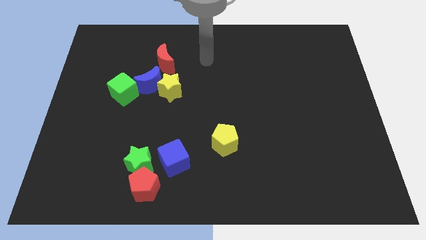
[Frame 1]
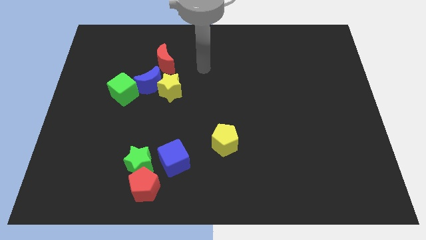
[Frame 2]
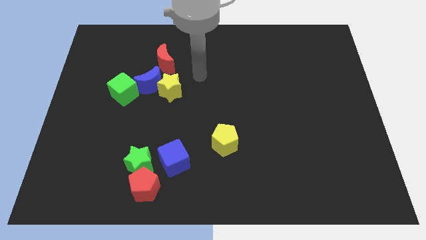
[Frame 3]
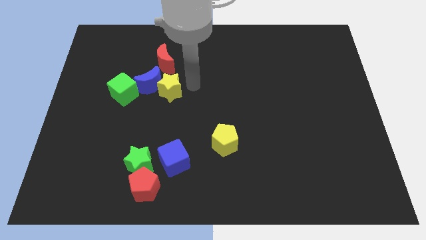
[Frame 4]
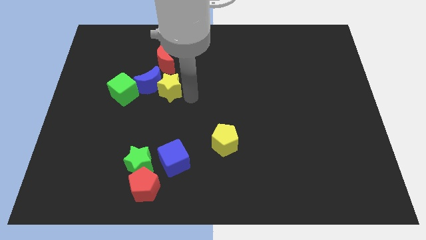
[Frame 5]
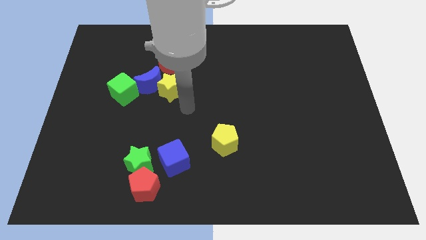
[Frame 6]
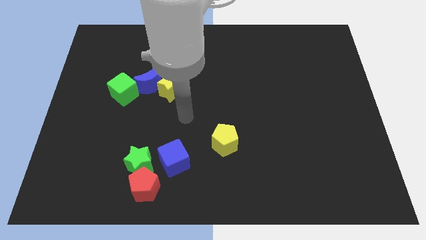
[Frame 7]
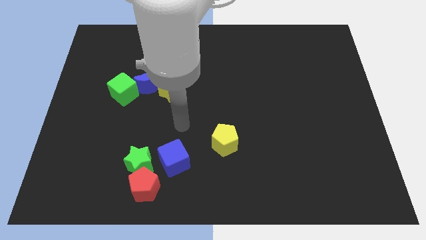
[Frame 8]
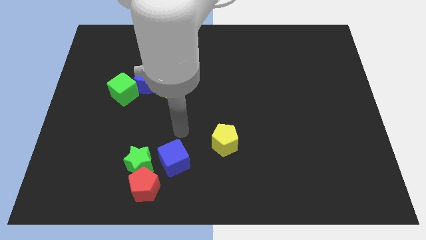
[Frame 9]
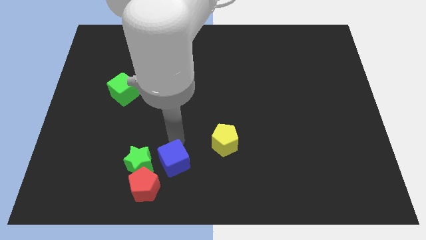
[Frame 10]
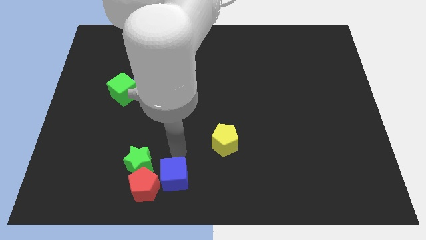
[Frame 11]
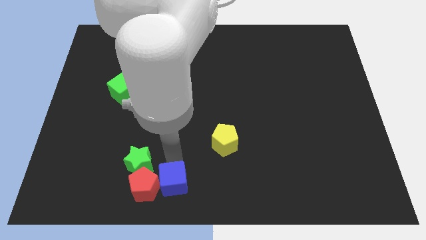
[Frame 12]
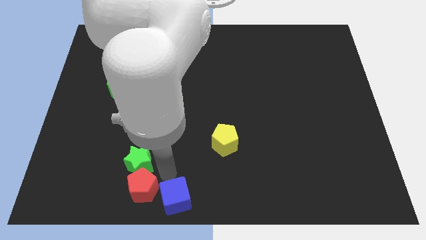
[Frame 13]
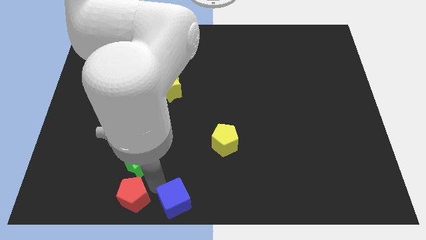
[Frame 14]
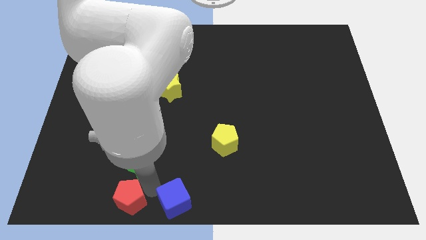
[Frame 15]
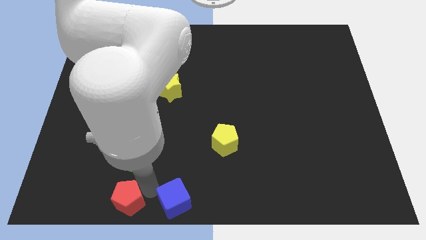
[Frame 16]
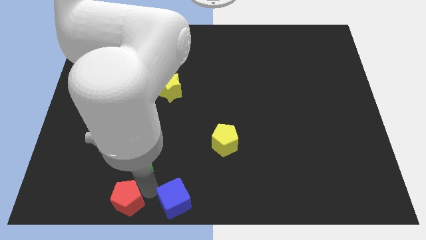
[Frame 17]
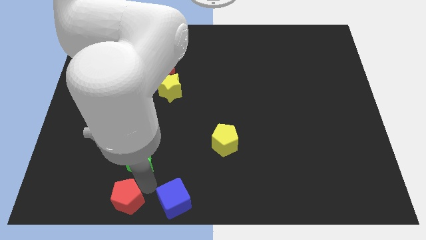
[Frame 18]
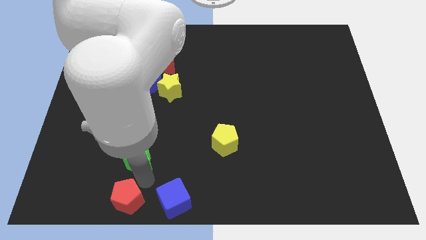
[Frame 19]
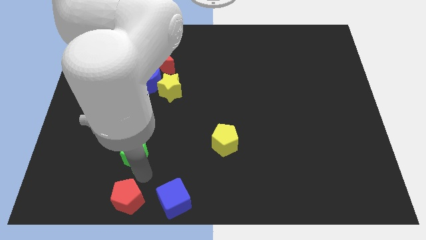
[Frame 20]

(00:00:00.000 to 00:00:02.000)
move the green star away from the red pentagon and blue cube

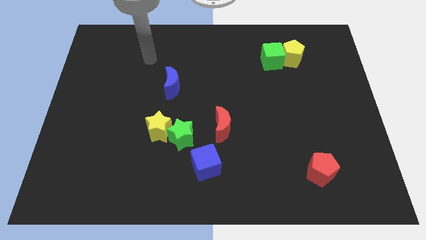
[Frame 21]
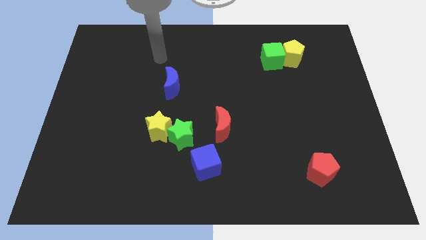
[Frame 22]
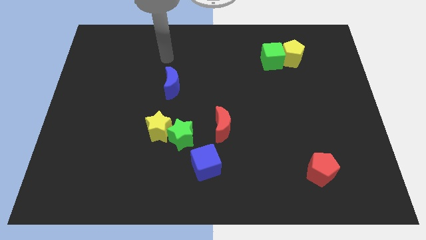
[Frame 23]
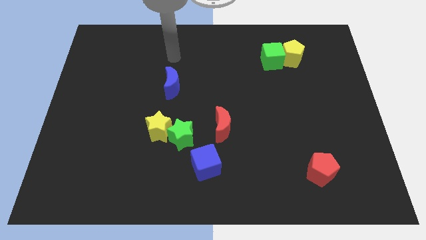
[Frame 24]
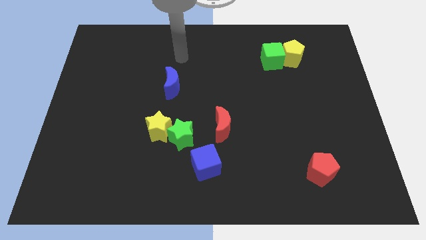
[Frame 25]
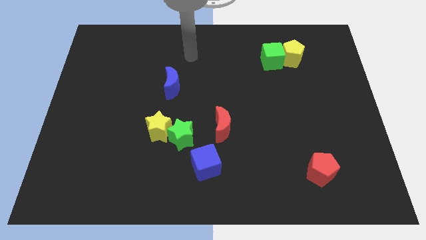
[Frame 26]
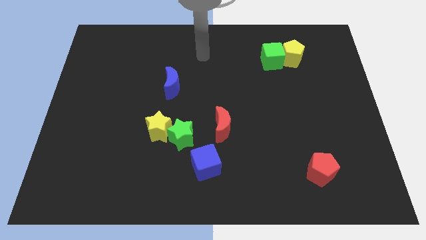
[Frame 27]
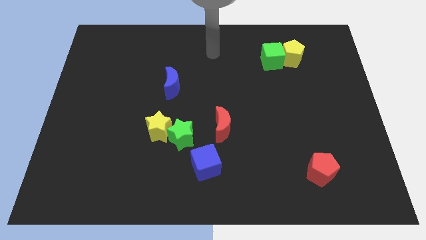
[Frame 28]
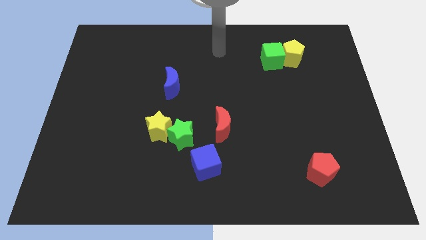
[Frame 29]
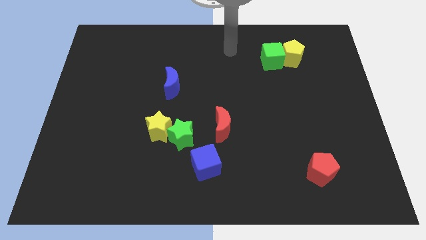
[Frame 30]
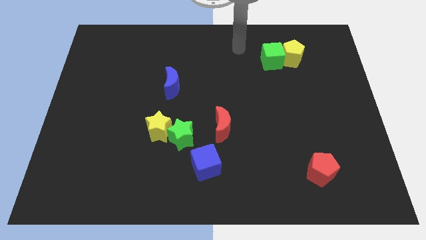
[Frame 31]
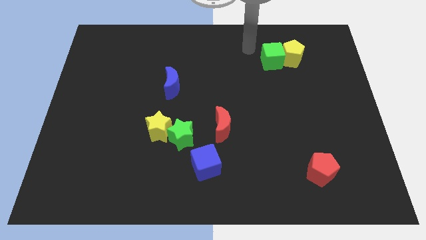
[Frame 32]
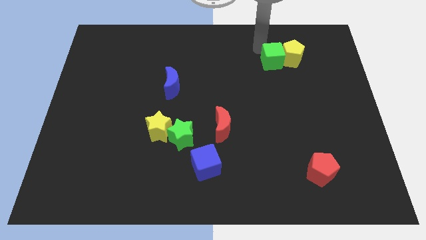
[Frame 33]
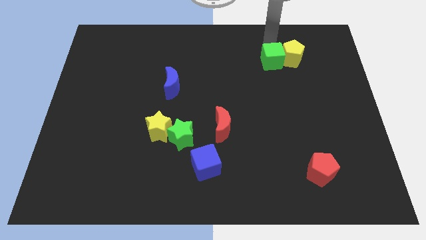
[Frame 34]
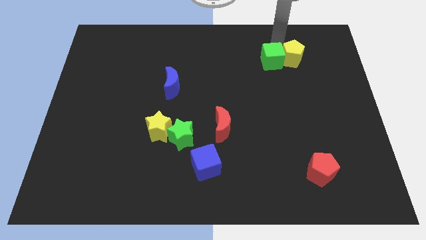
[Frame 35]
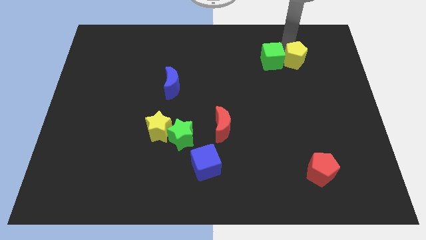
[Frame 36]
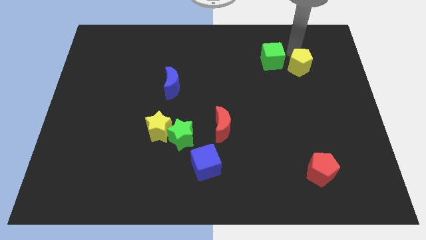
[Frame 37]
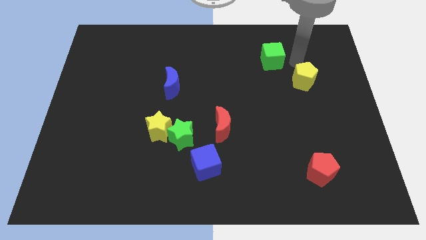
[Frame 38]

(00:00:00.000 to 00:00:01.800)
pull the green cube apart from the yellow pentagon

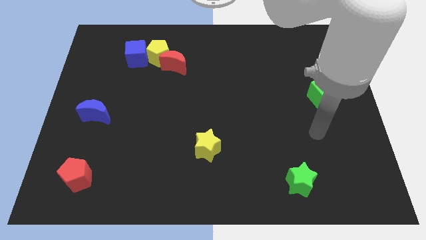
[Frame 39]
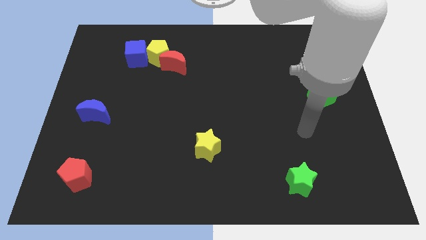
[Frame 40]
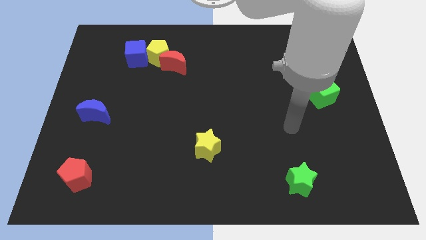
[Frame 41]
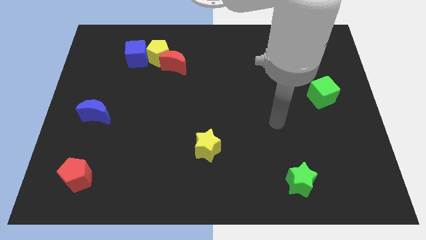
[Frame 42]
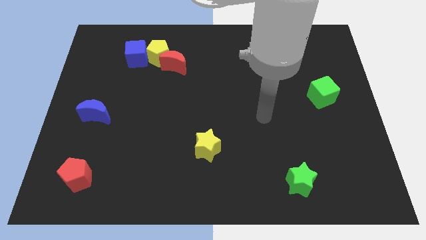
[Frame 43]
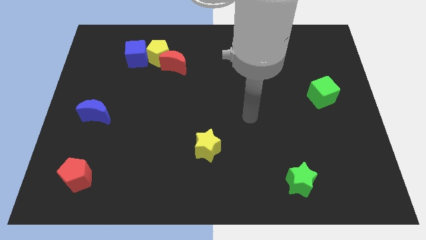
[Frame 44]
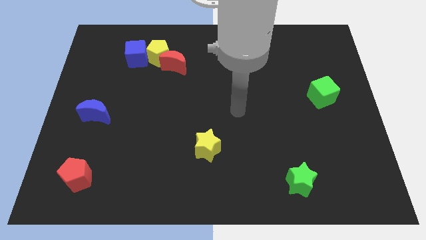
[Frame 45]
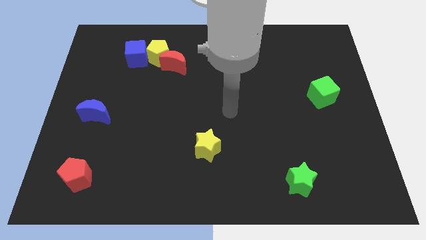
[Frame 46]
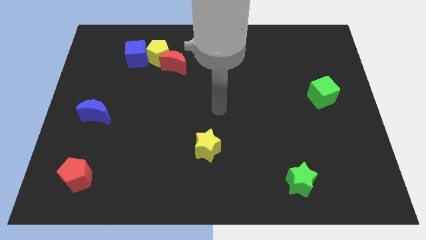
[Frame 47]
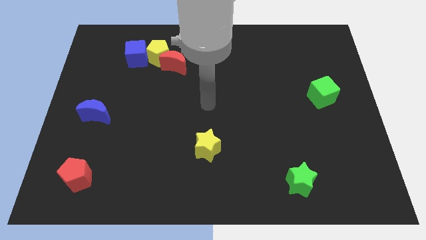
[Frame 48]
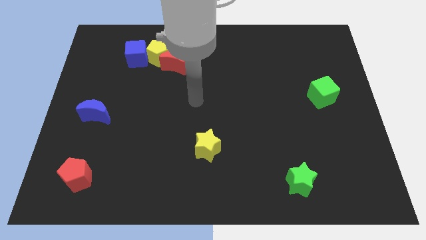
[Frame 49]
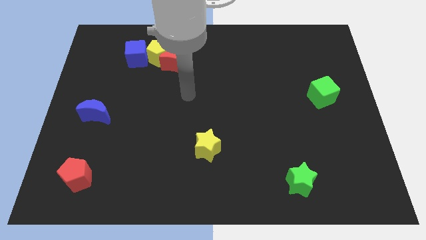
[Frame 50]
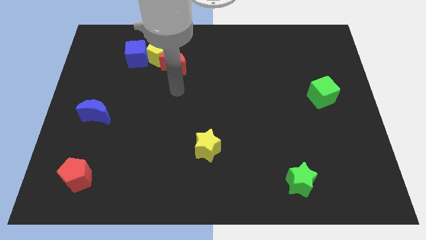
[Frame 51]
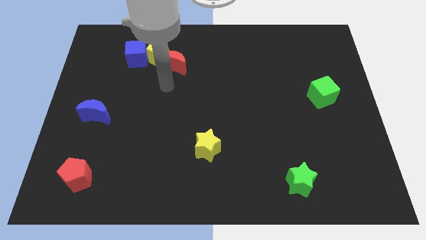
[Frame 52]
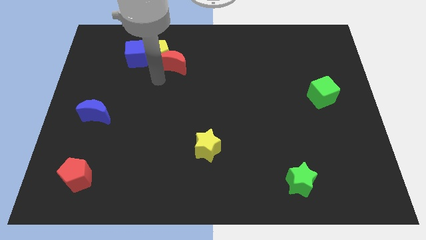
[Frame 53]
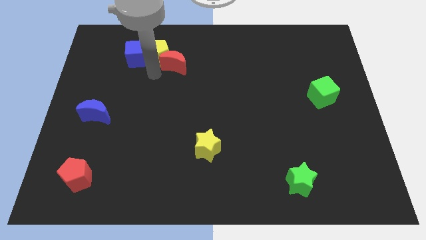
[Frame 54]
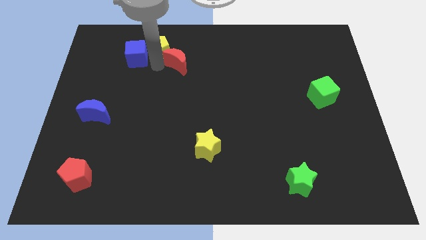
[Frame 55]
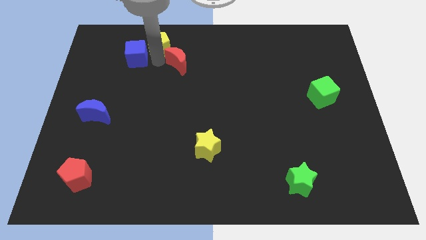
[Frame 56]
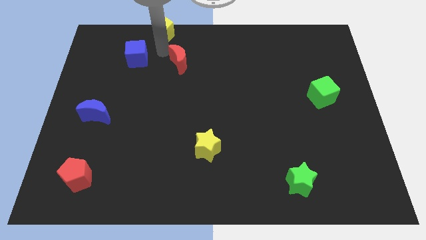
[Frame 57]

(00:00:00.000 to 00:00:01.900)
move the red moon away from the yellow pentagon

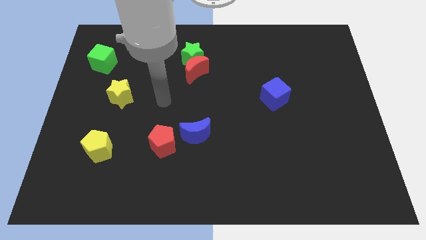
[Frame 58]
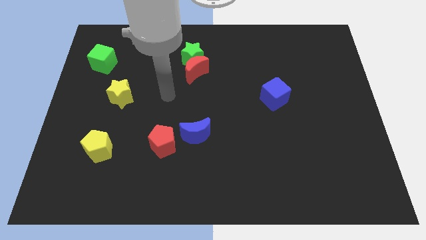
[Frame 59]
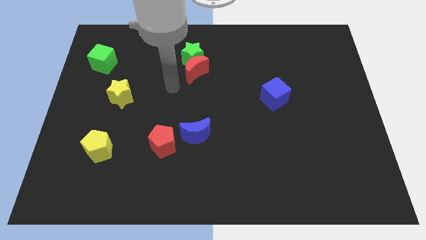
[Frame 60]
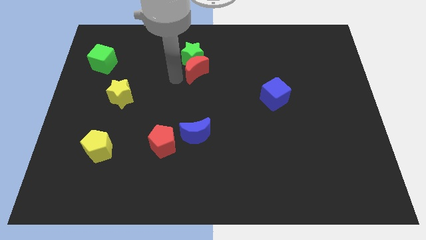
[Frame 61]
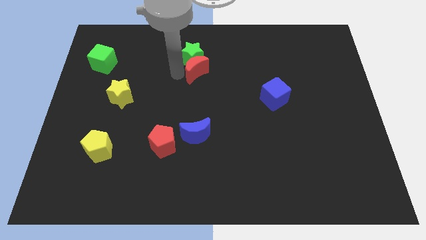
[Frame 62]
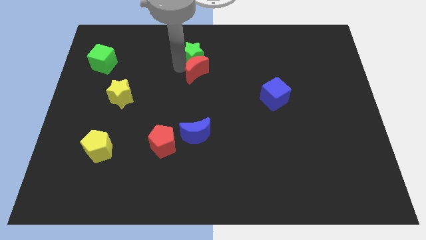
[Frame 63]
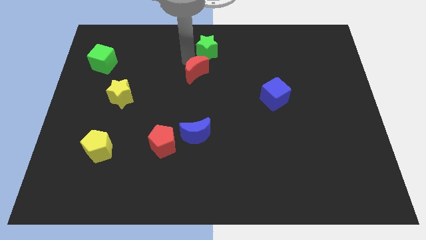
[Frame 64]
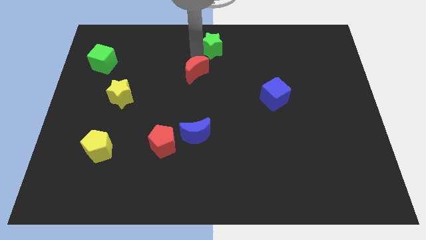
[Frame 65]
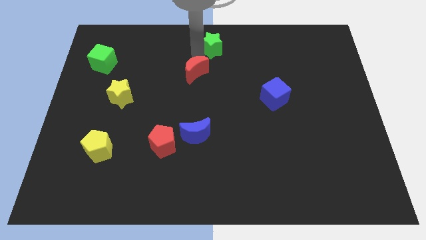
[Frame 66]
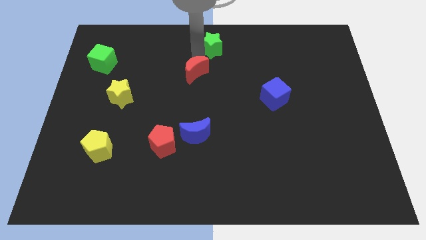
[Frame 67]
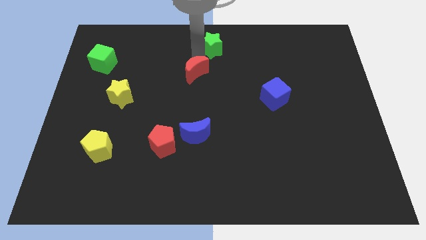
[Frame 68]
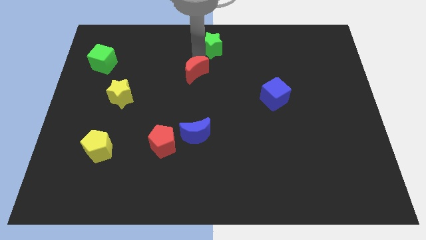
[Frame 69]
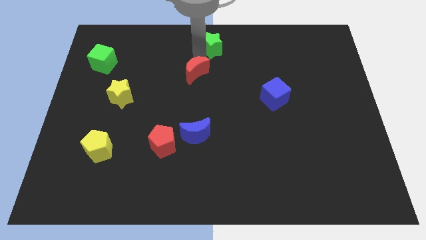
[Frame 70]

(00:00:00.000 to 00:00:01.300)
move the red moon away from the green star

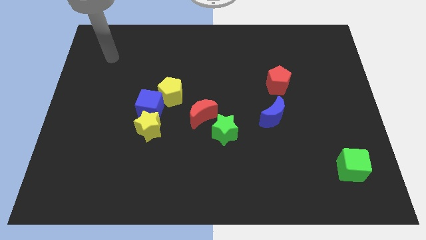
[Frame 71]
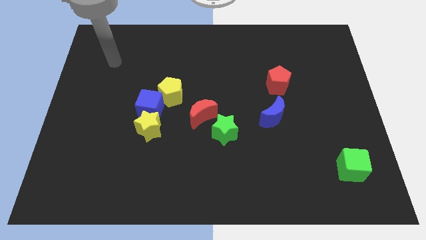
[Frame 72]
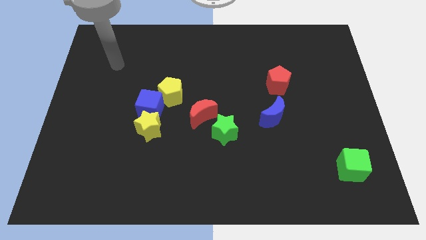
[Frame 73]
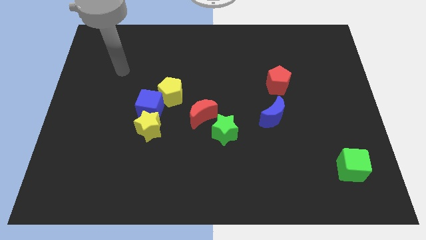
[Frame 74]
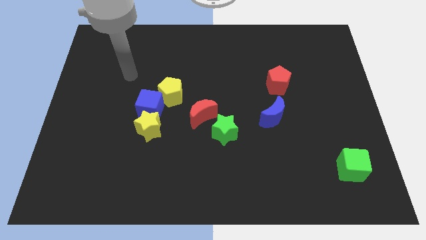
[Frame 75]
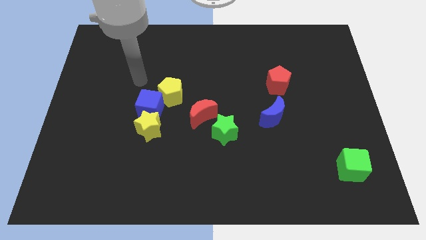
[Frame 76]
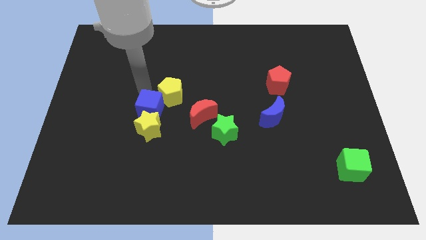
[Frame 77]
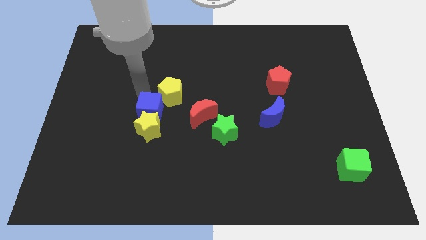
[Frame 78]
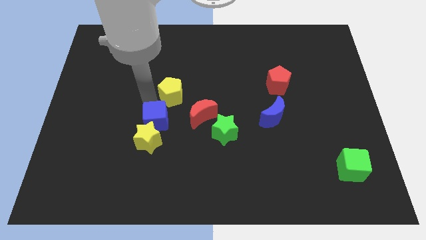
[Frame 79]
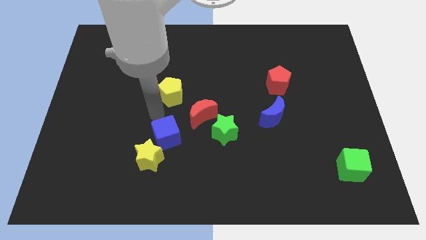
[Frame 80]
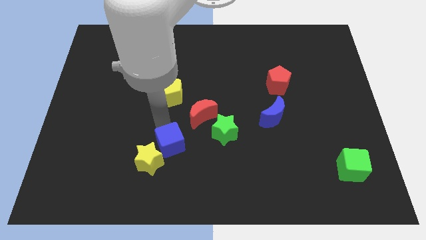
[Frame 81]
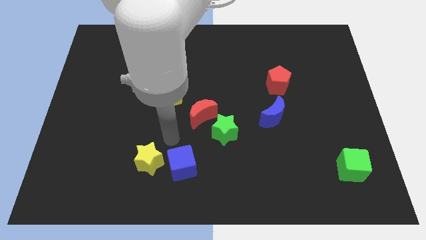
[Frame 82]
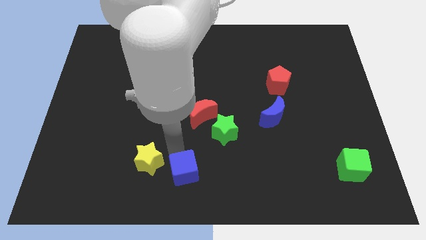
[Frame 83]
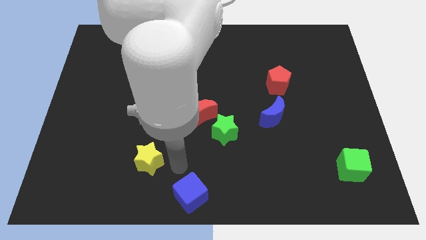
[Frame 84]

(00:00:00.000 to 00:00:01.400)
move the yellow star away from the blue cube

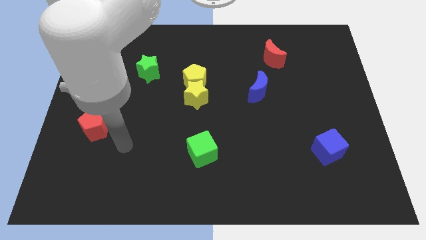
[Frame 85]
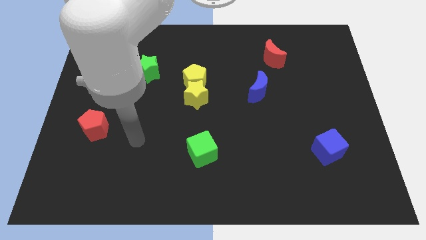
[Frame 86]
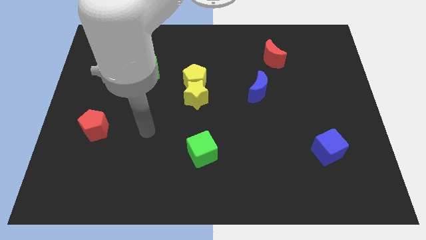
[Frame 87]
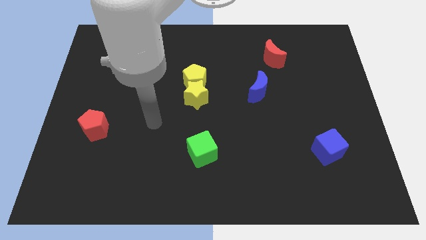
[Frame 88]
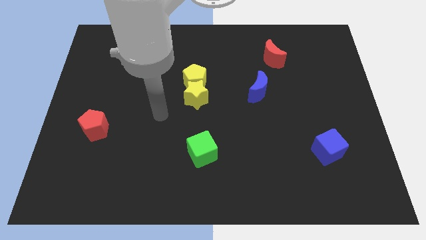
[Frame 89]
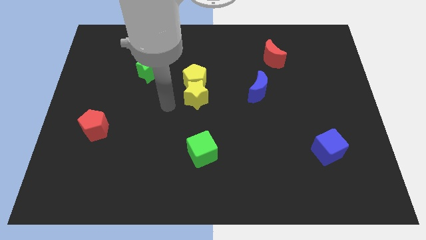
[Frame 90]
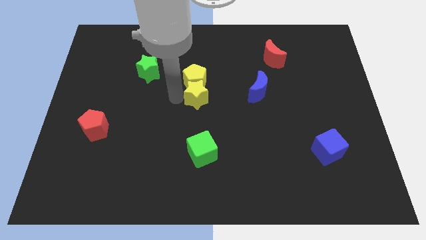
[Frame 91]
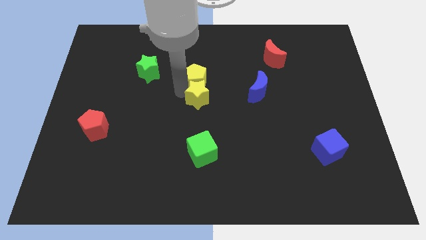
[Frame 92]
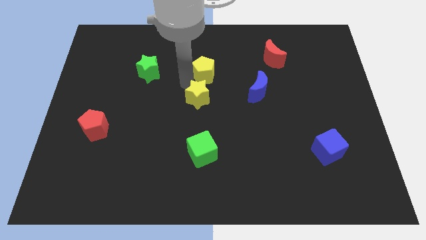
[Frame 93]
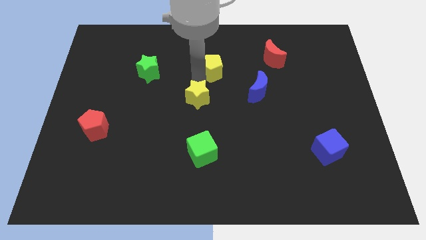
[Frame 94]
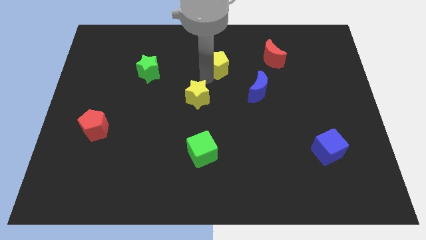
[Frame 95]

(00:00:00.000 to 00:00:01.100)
move the yellow star away from the yellow pentagon
